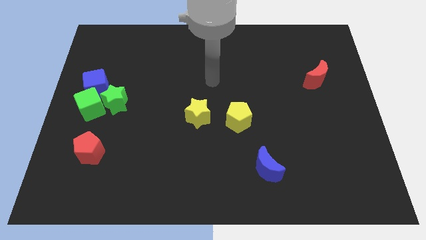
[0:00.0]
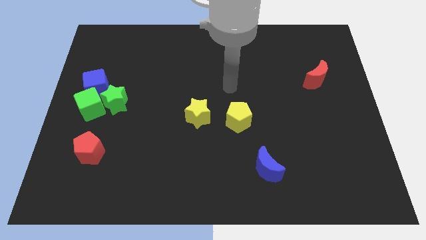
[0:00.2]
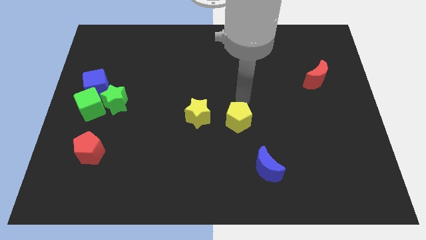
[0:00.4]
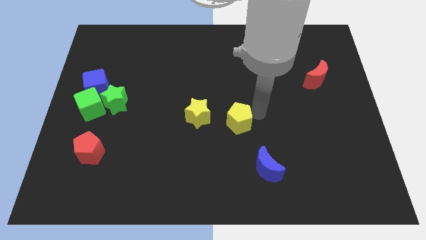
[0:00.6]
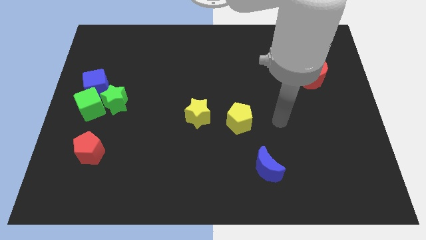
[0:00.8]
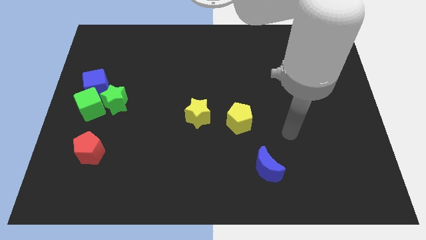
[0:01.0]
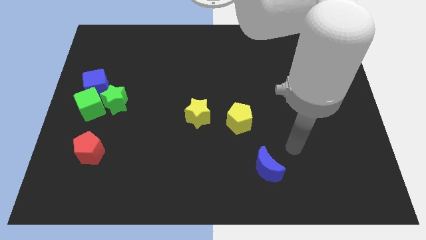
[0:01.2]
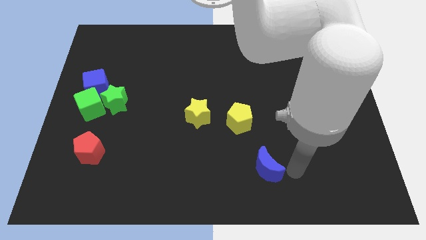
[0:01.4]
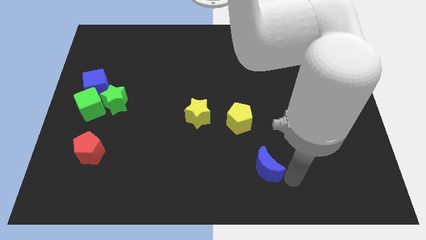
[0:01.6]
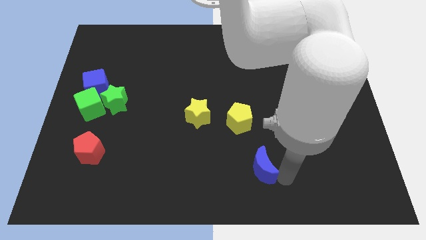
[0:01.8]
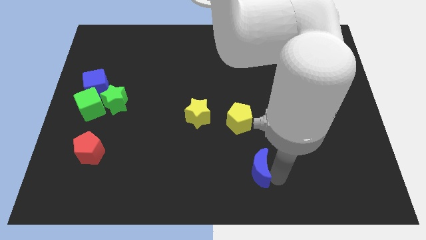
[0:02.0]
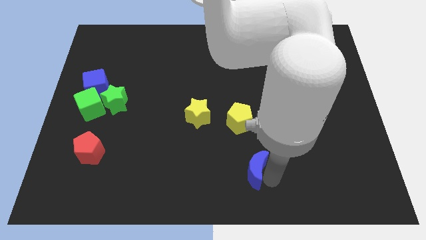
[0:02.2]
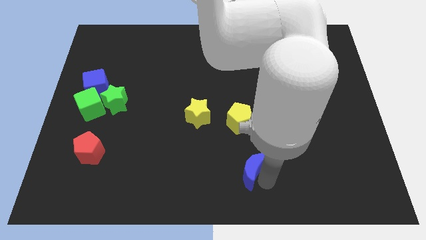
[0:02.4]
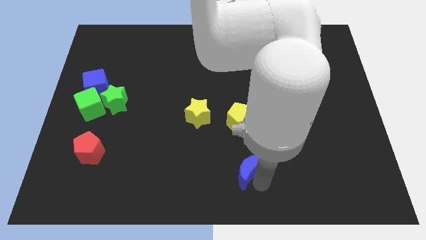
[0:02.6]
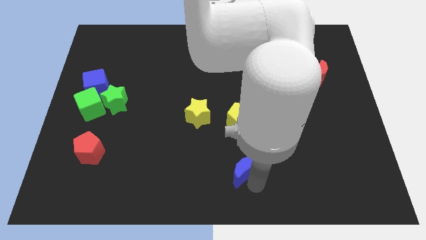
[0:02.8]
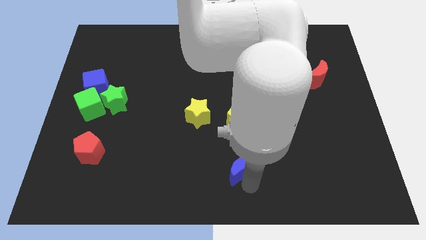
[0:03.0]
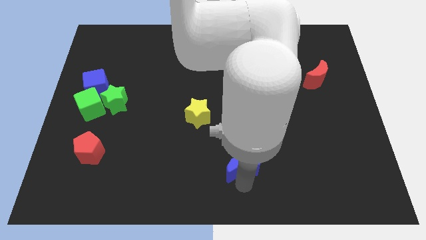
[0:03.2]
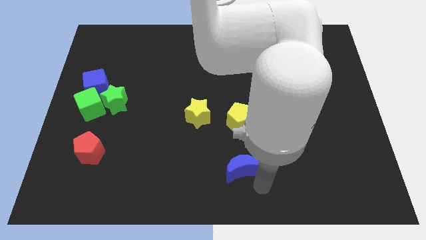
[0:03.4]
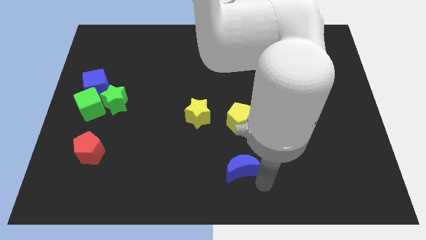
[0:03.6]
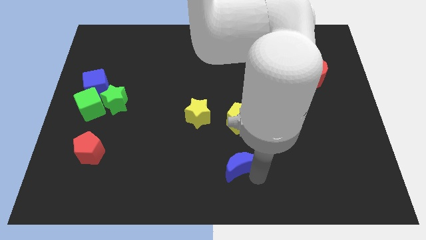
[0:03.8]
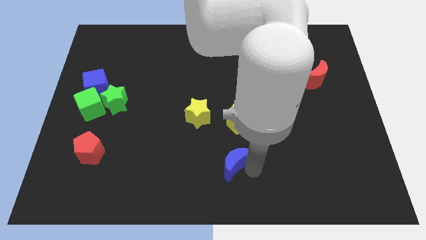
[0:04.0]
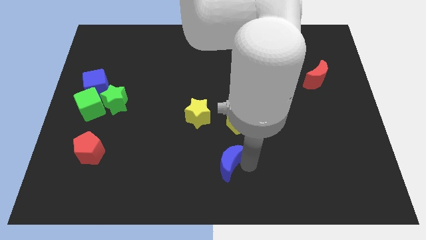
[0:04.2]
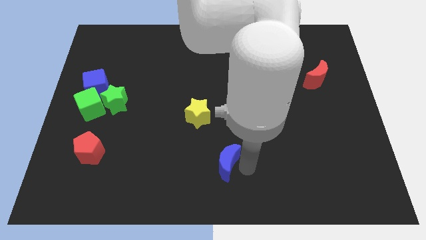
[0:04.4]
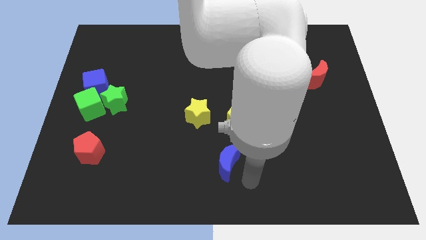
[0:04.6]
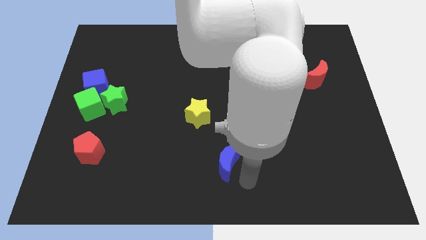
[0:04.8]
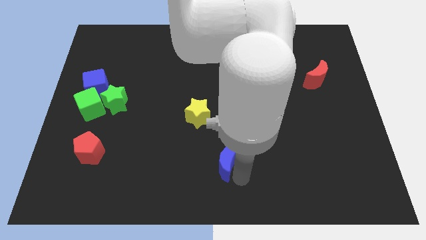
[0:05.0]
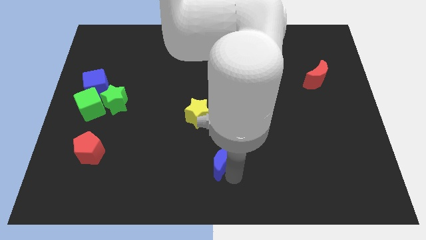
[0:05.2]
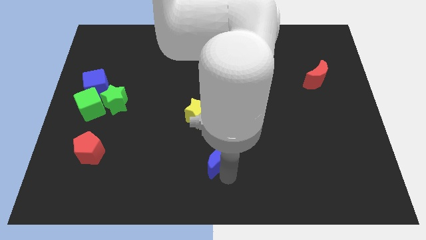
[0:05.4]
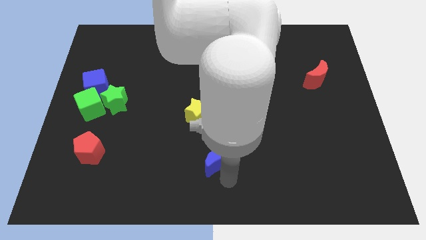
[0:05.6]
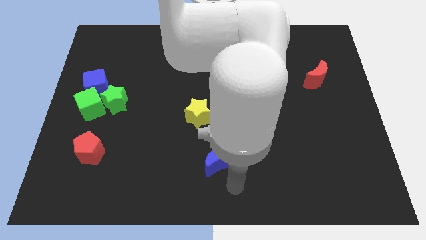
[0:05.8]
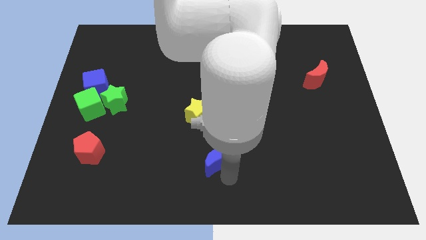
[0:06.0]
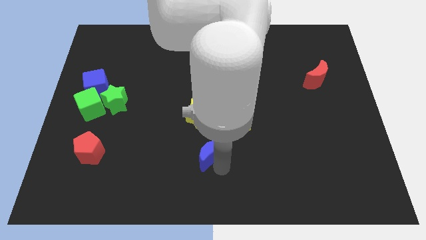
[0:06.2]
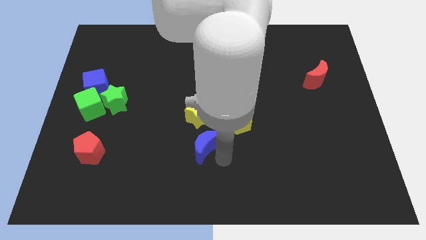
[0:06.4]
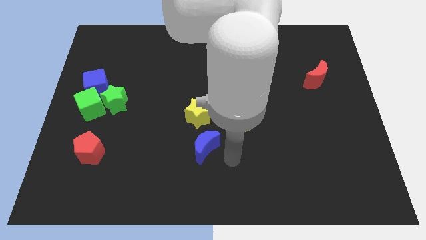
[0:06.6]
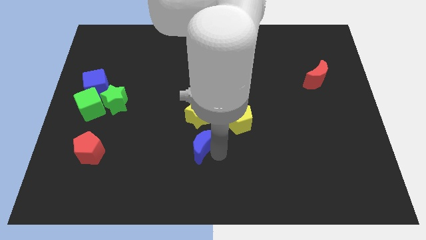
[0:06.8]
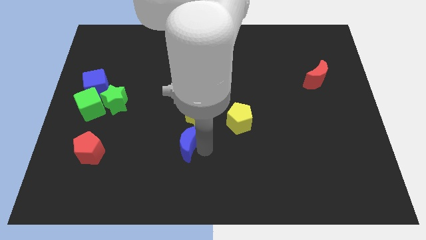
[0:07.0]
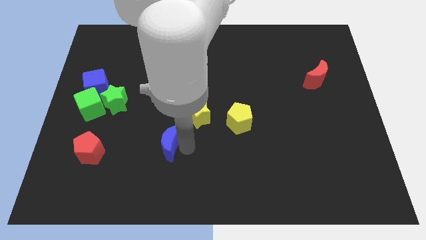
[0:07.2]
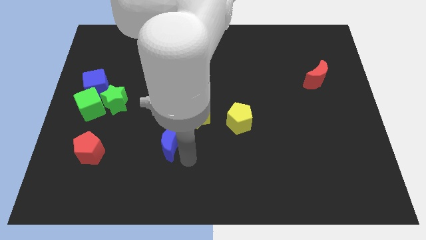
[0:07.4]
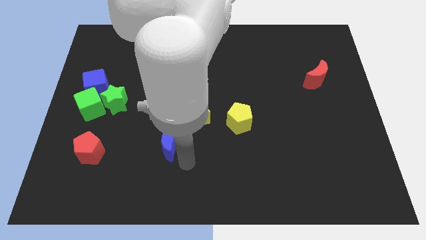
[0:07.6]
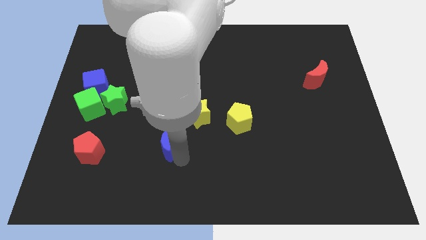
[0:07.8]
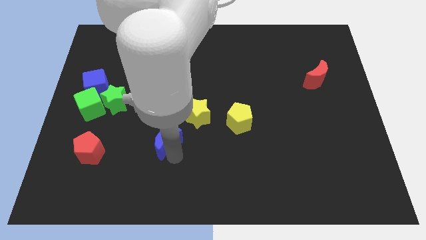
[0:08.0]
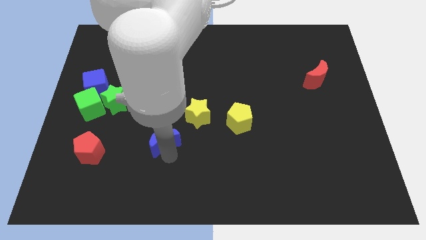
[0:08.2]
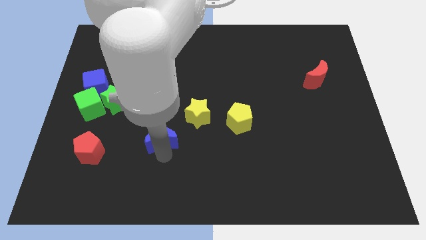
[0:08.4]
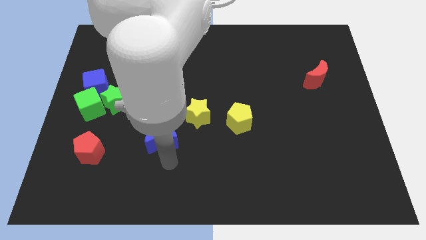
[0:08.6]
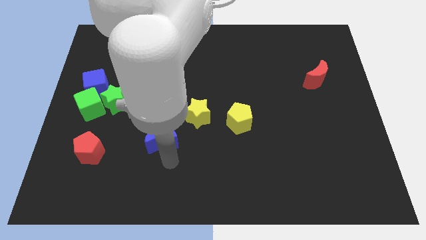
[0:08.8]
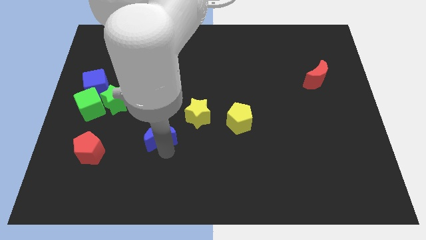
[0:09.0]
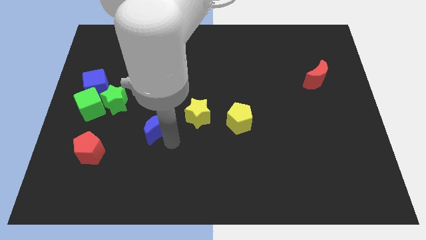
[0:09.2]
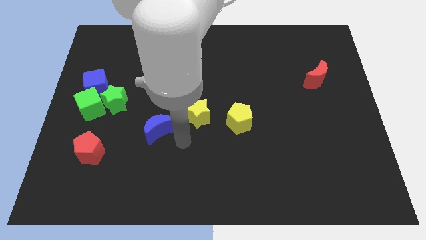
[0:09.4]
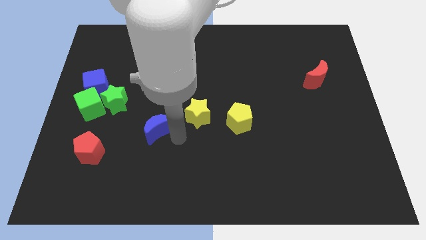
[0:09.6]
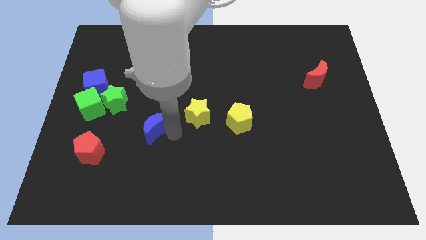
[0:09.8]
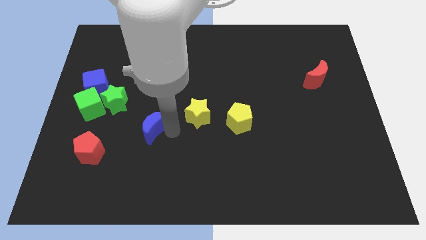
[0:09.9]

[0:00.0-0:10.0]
slide the blue moon to the bottom right side of the green star

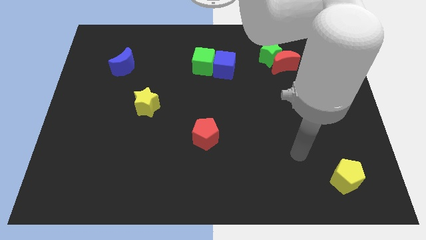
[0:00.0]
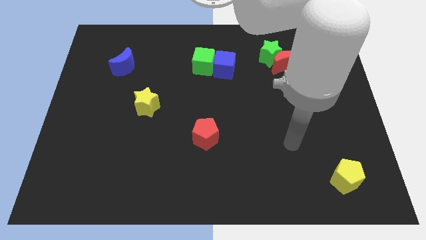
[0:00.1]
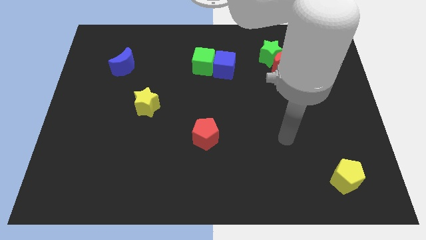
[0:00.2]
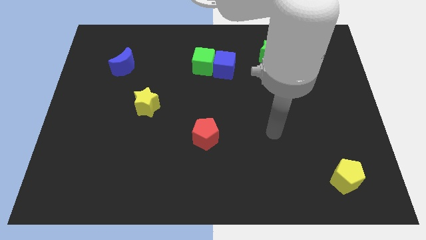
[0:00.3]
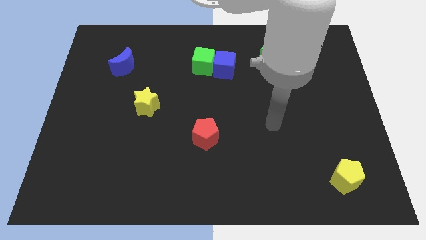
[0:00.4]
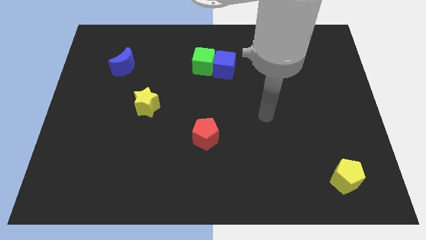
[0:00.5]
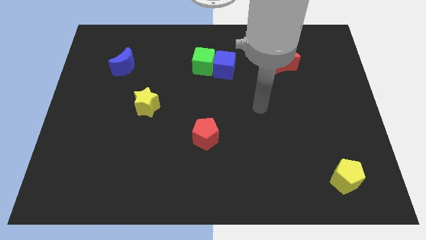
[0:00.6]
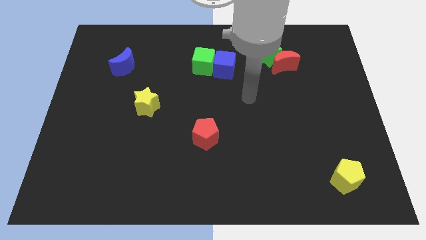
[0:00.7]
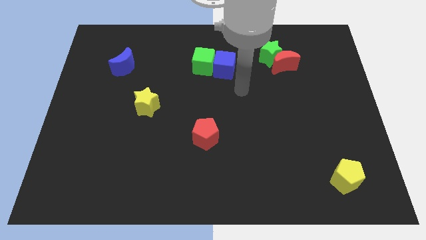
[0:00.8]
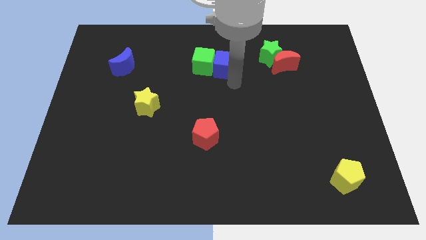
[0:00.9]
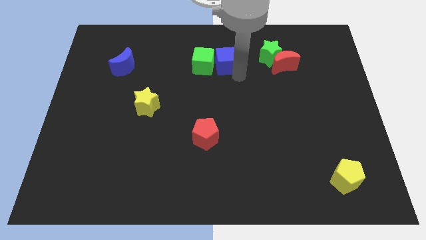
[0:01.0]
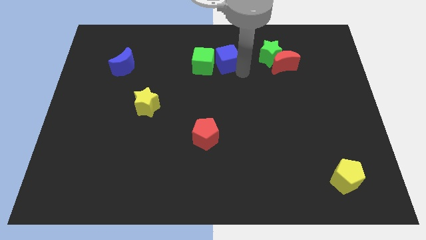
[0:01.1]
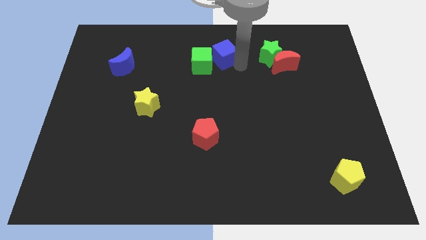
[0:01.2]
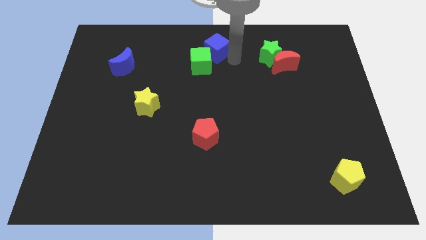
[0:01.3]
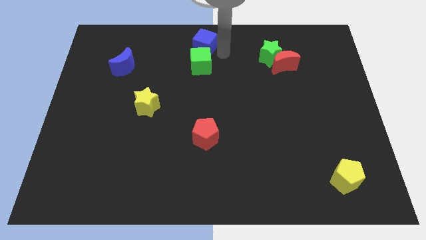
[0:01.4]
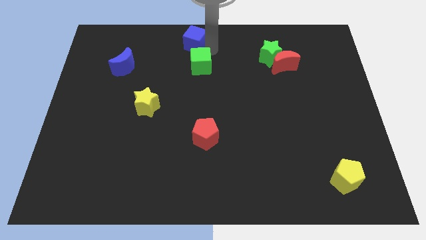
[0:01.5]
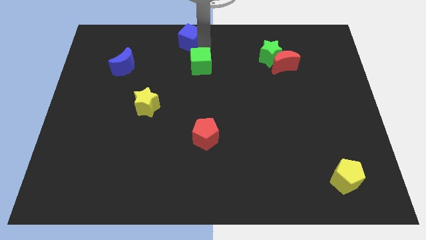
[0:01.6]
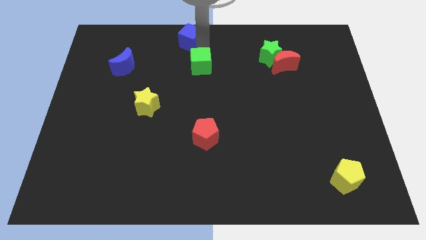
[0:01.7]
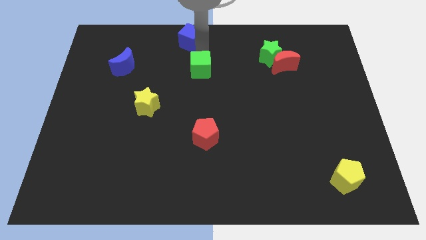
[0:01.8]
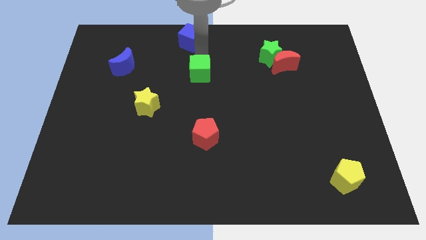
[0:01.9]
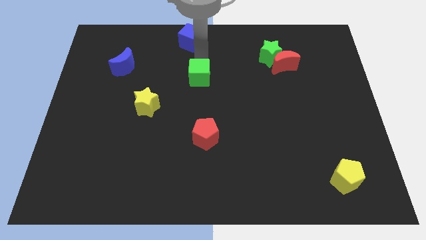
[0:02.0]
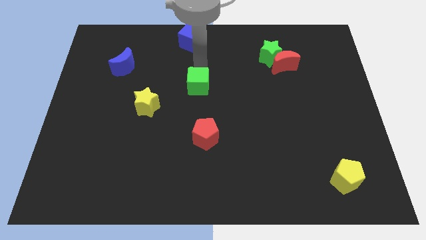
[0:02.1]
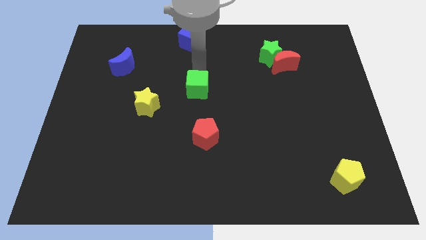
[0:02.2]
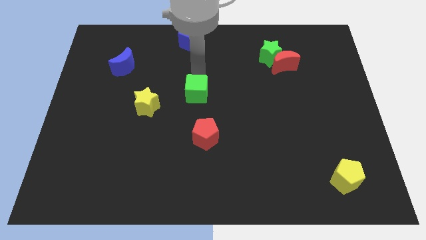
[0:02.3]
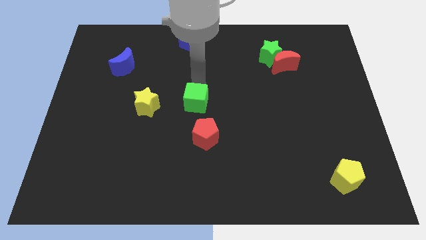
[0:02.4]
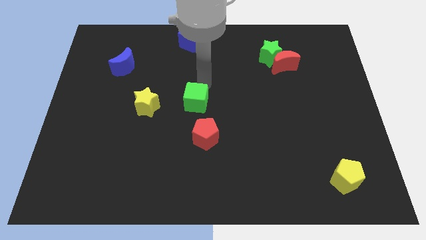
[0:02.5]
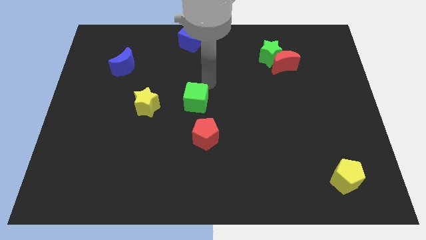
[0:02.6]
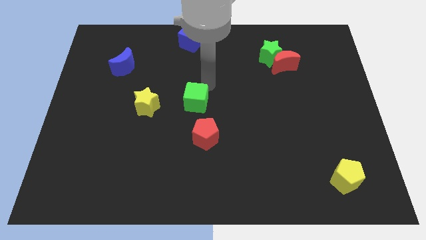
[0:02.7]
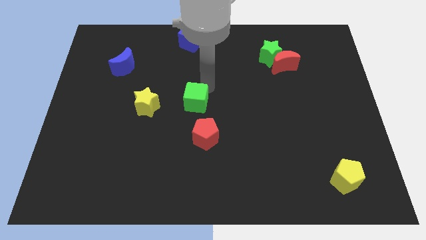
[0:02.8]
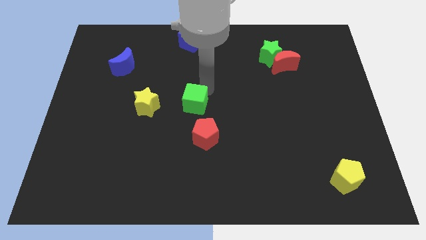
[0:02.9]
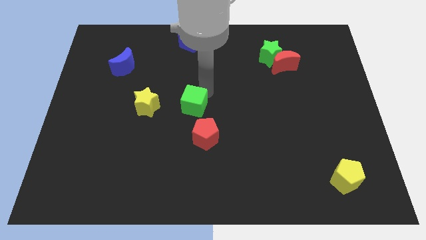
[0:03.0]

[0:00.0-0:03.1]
put the green cube to the top left of the red pentagon
